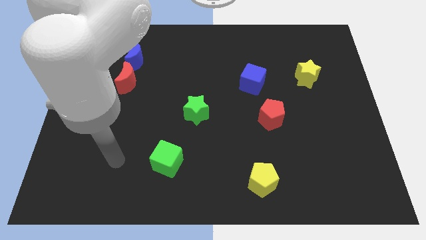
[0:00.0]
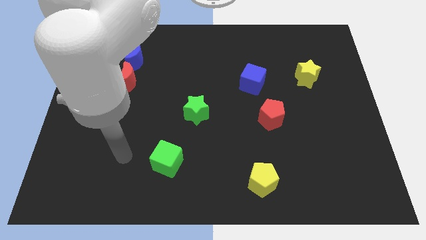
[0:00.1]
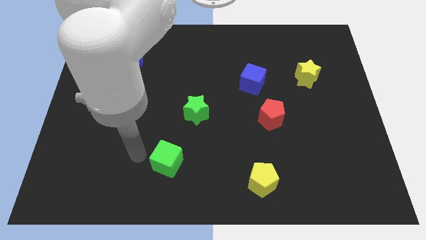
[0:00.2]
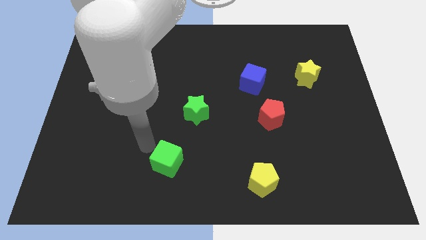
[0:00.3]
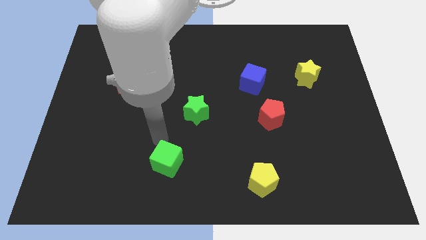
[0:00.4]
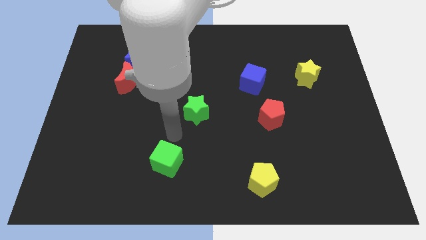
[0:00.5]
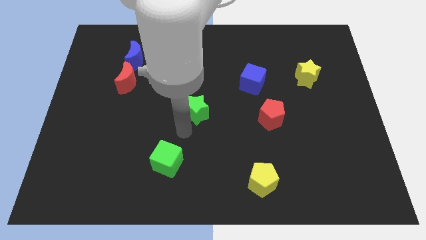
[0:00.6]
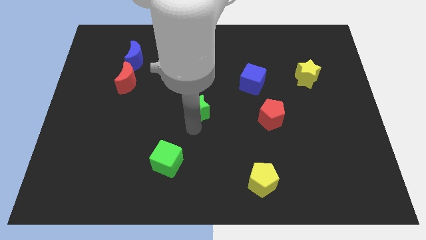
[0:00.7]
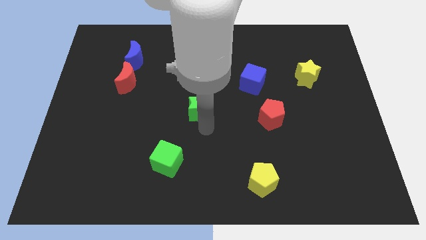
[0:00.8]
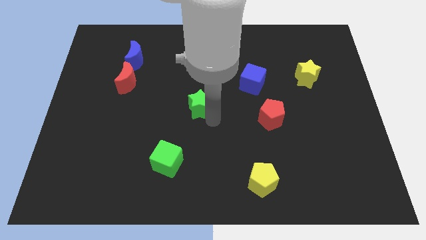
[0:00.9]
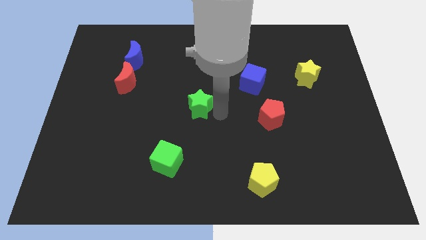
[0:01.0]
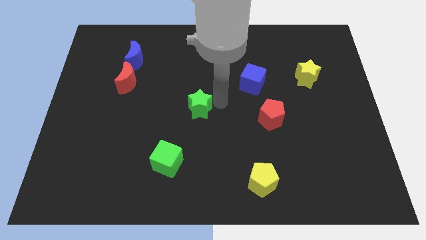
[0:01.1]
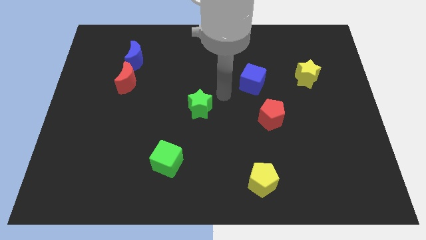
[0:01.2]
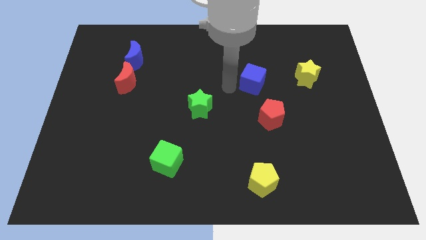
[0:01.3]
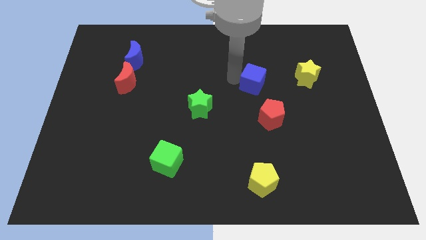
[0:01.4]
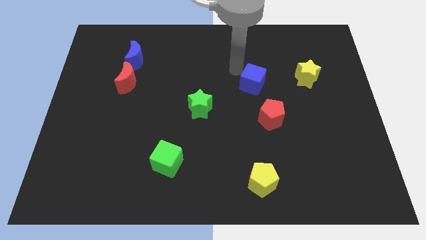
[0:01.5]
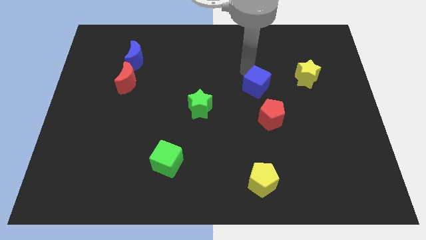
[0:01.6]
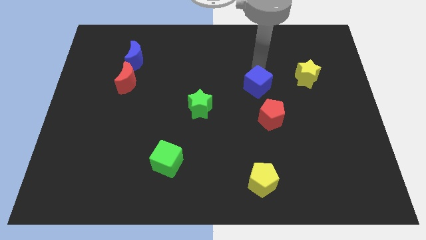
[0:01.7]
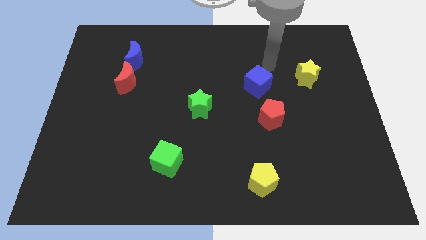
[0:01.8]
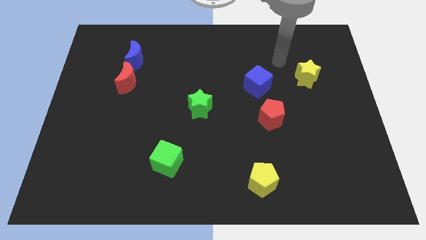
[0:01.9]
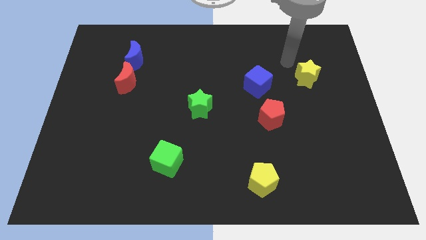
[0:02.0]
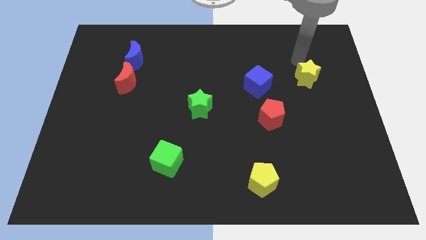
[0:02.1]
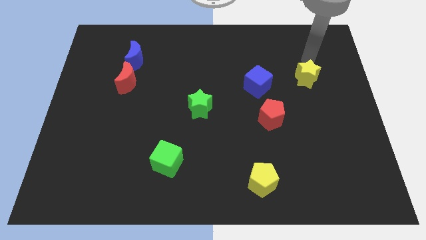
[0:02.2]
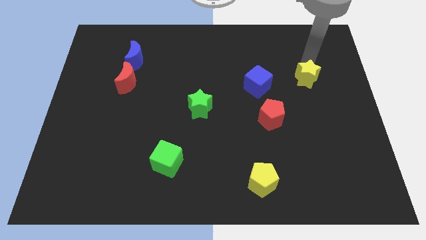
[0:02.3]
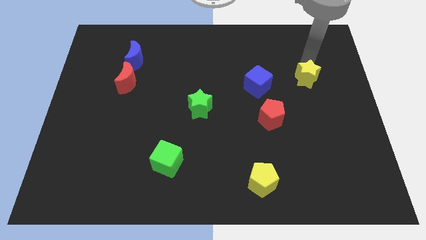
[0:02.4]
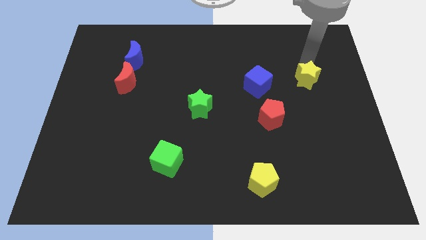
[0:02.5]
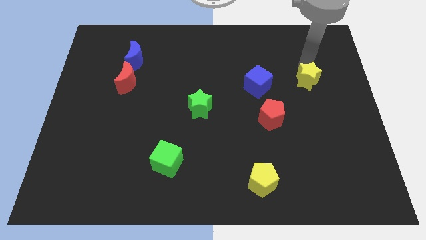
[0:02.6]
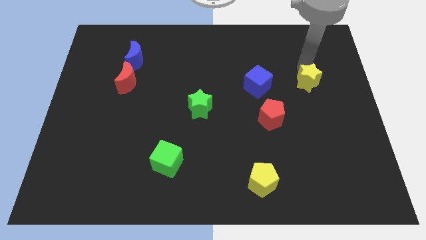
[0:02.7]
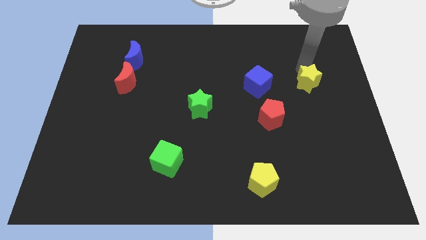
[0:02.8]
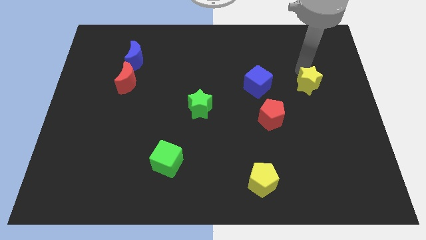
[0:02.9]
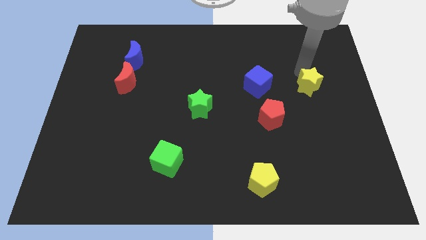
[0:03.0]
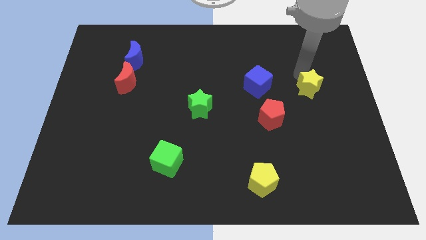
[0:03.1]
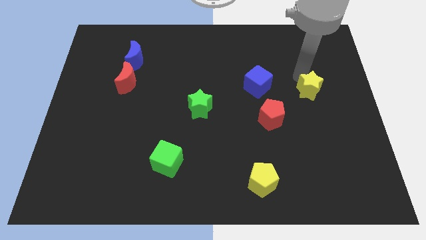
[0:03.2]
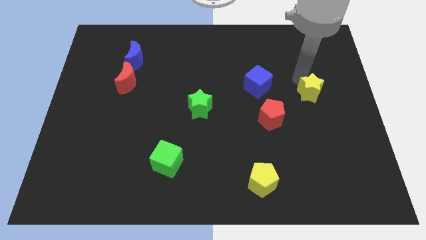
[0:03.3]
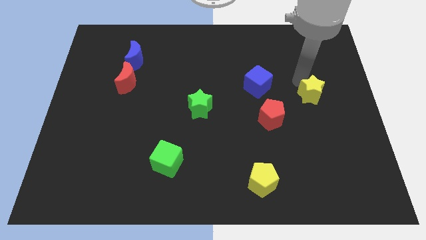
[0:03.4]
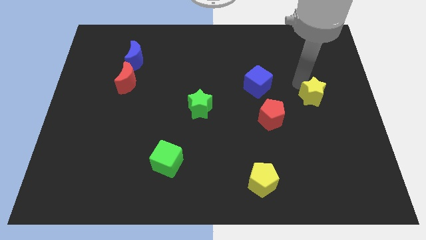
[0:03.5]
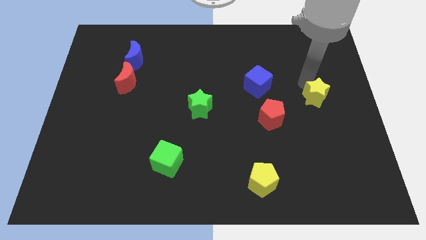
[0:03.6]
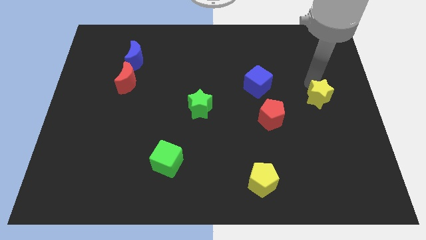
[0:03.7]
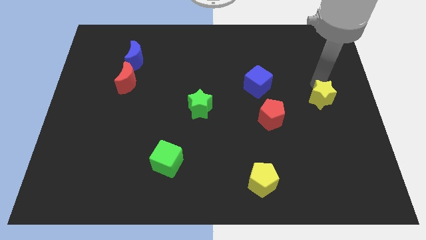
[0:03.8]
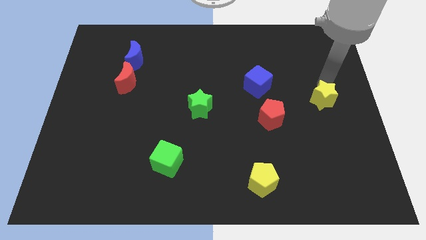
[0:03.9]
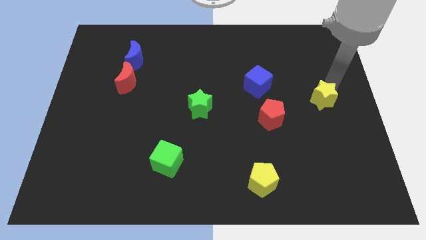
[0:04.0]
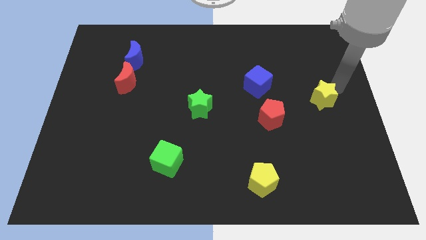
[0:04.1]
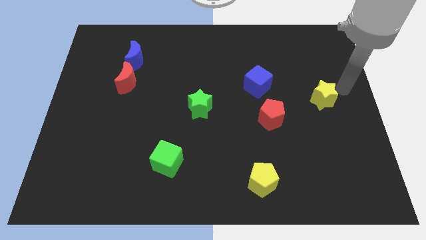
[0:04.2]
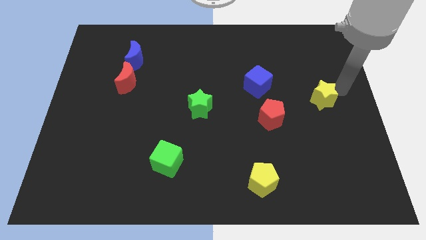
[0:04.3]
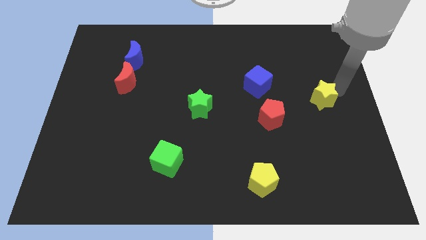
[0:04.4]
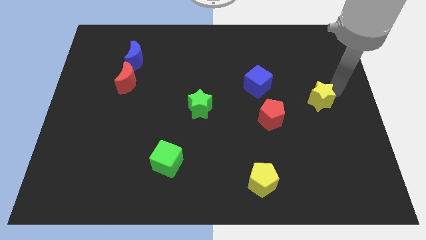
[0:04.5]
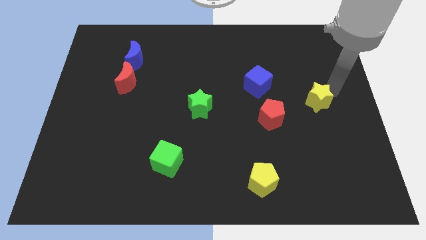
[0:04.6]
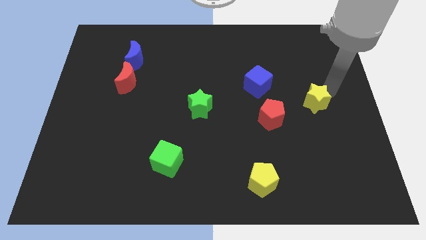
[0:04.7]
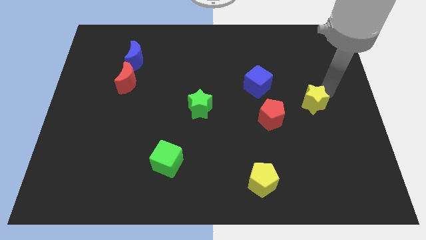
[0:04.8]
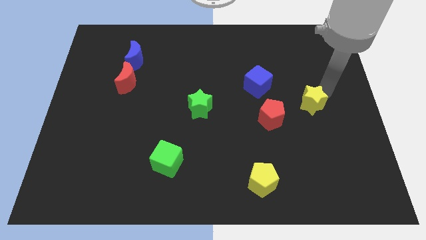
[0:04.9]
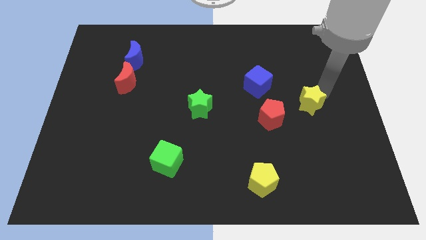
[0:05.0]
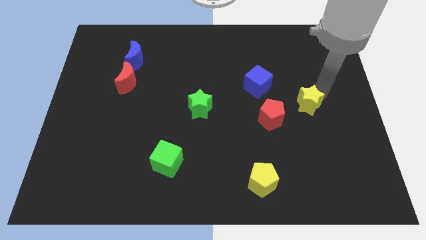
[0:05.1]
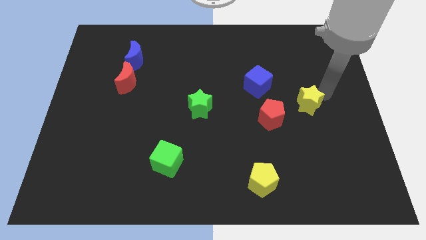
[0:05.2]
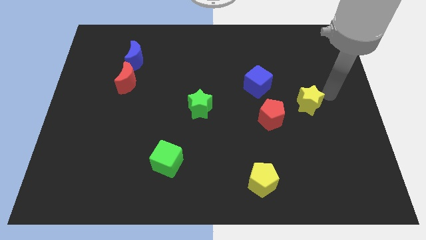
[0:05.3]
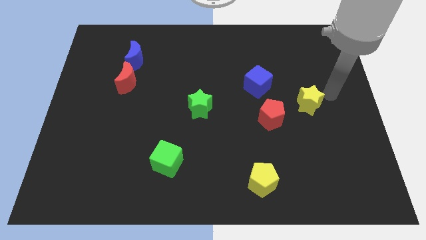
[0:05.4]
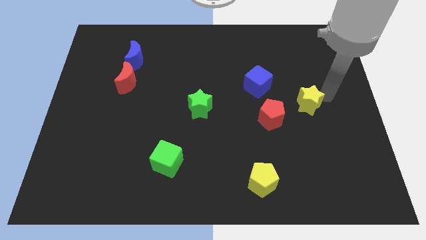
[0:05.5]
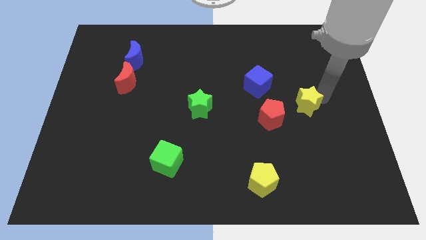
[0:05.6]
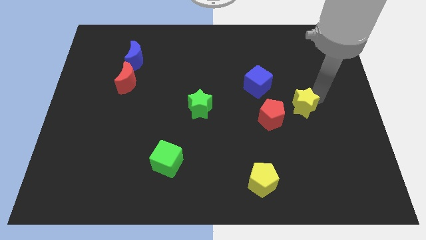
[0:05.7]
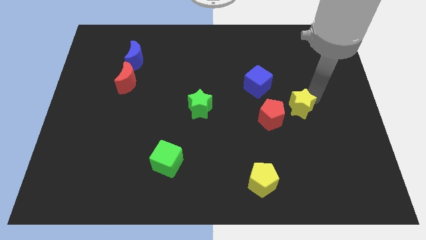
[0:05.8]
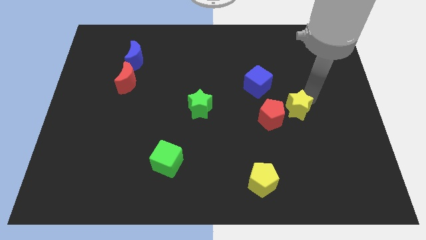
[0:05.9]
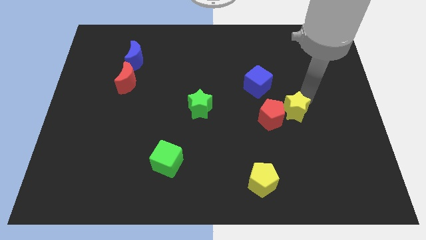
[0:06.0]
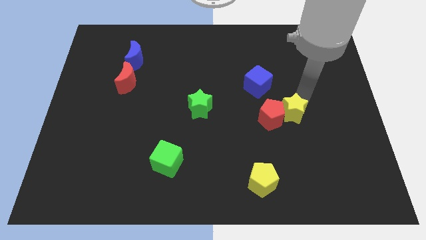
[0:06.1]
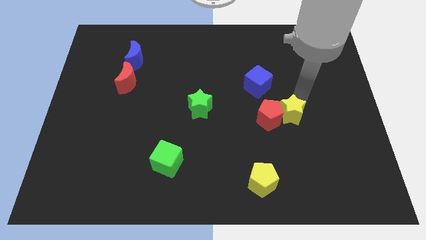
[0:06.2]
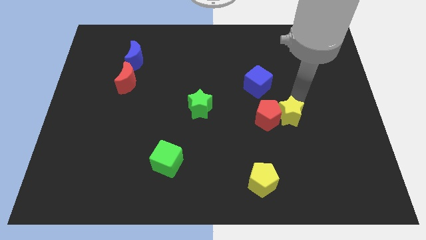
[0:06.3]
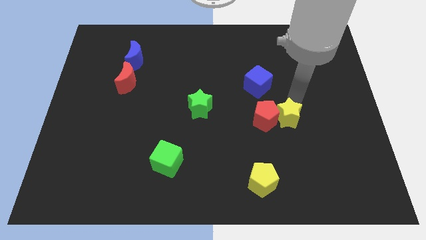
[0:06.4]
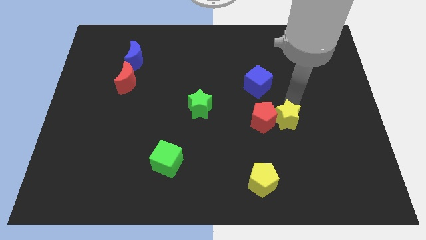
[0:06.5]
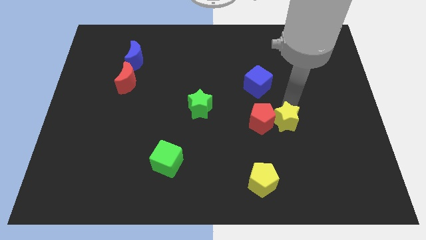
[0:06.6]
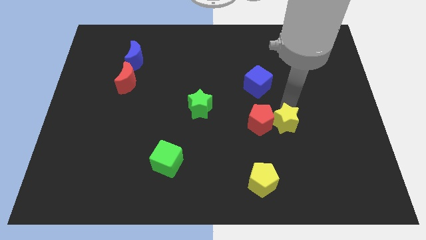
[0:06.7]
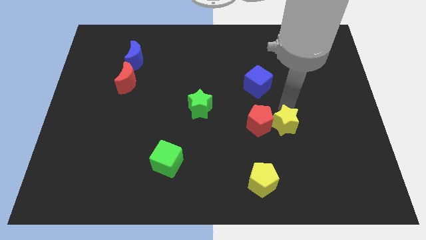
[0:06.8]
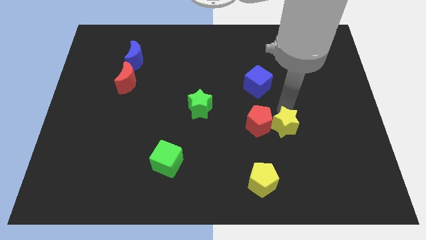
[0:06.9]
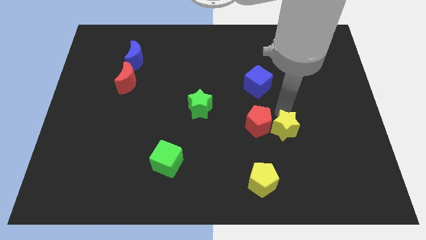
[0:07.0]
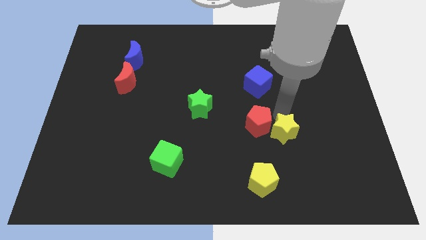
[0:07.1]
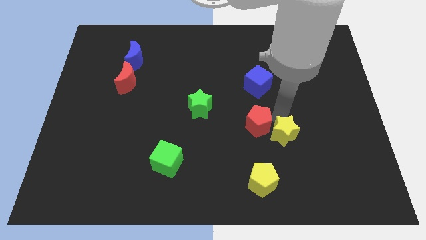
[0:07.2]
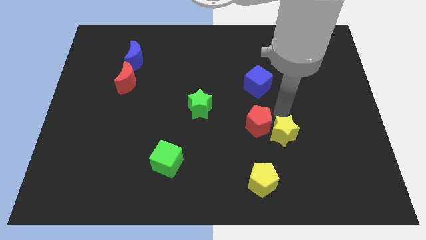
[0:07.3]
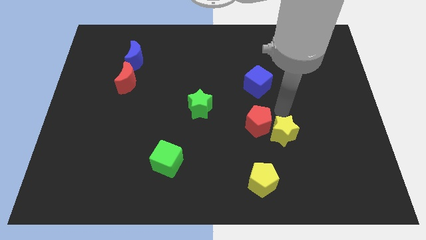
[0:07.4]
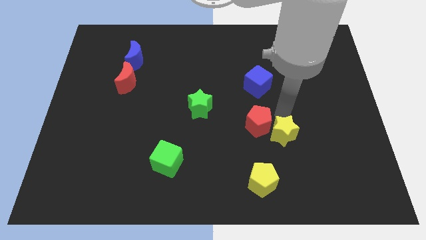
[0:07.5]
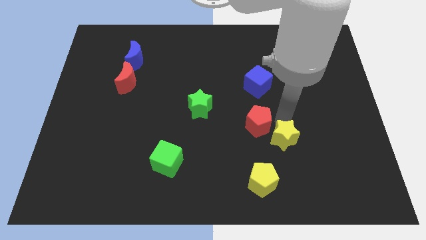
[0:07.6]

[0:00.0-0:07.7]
put the yellow star to the top right of the yellow pentagon
